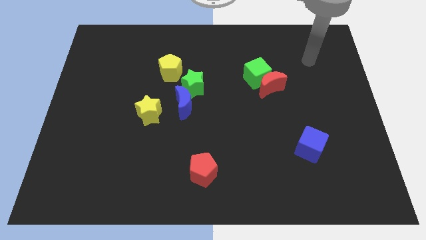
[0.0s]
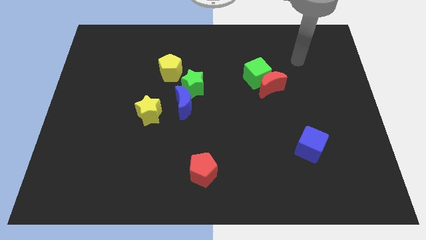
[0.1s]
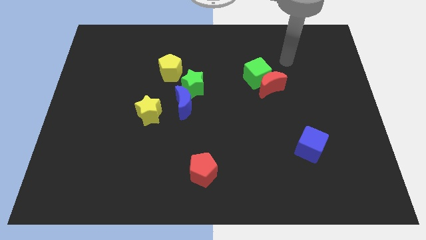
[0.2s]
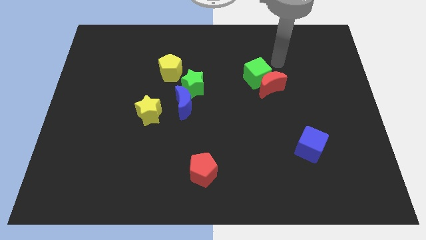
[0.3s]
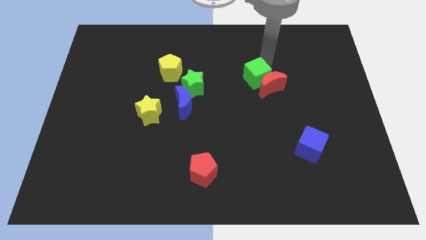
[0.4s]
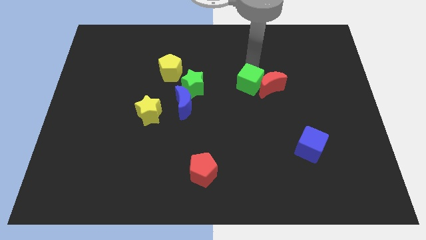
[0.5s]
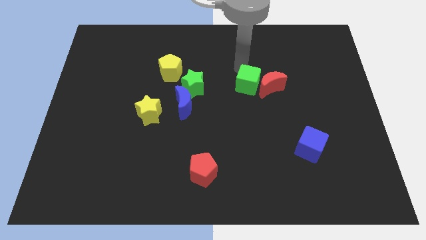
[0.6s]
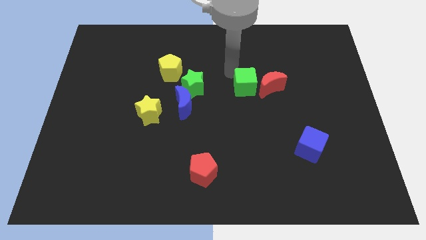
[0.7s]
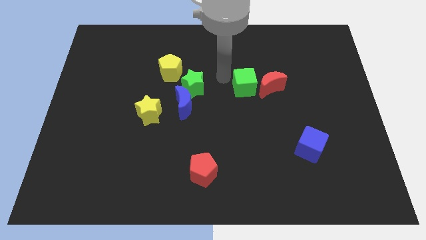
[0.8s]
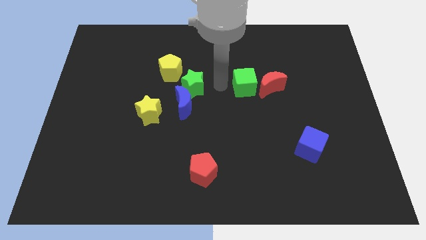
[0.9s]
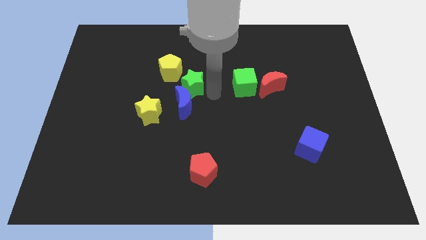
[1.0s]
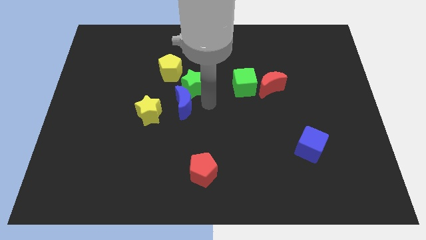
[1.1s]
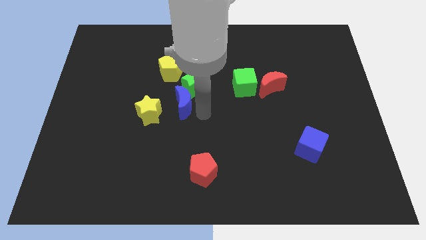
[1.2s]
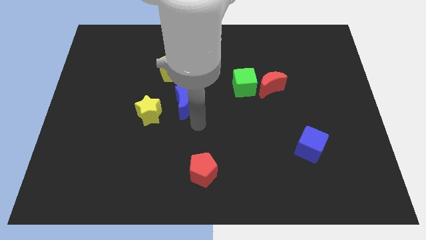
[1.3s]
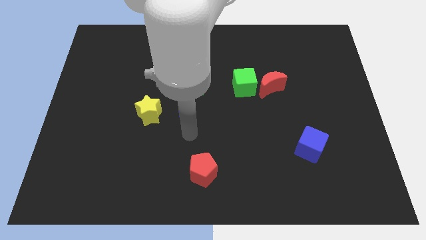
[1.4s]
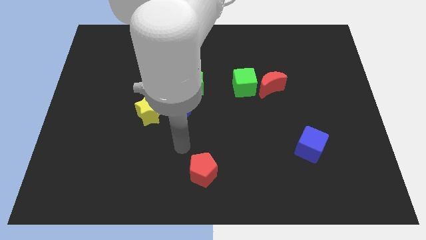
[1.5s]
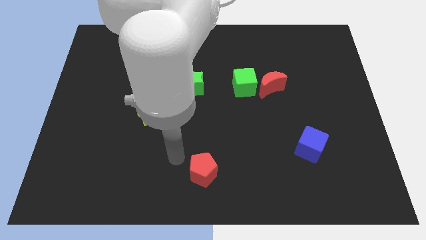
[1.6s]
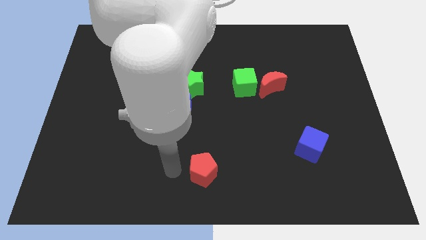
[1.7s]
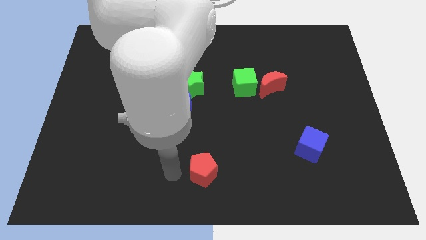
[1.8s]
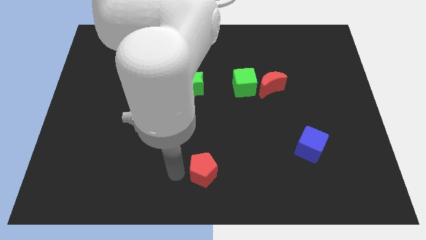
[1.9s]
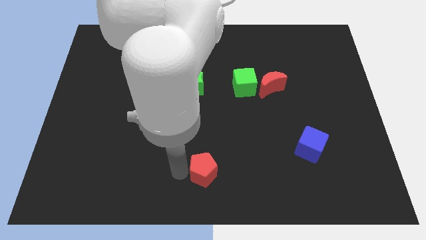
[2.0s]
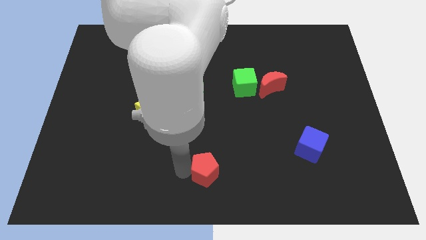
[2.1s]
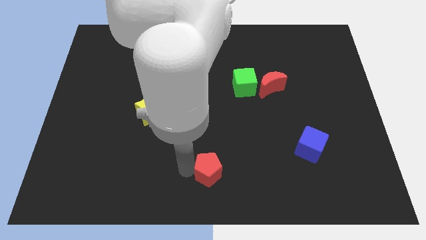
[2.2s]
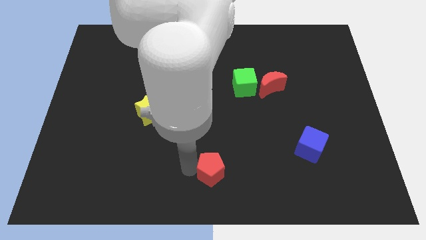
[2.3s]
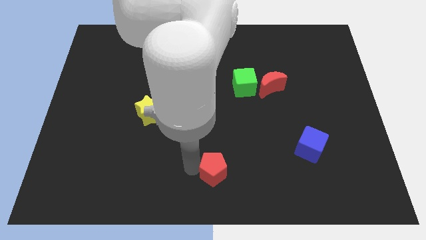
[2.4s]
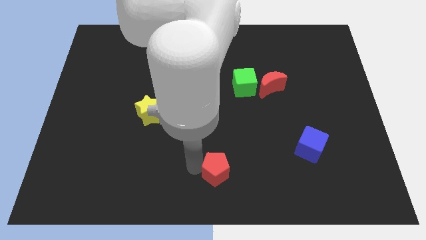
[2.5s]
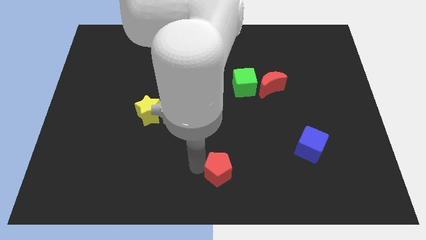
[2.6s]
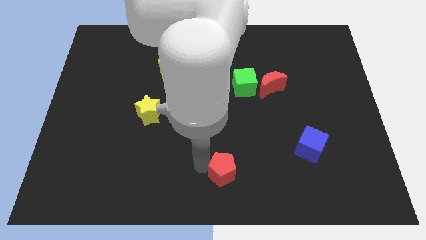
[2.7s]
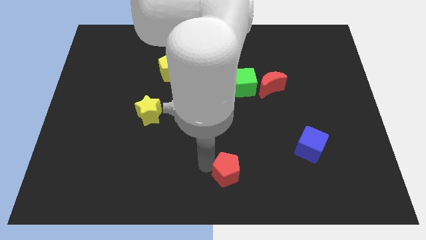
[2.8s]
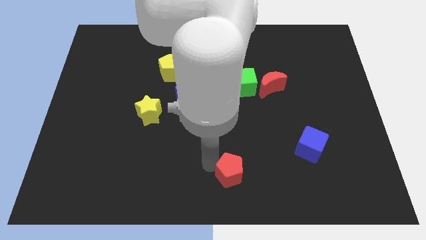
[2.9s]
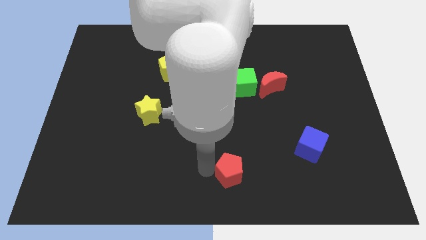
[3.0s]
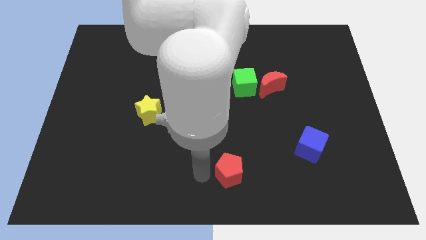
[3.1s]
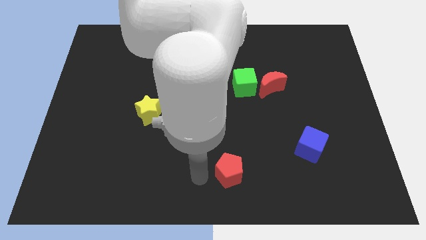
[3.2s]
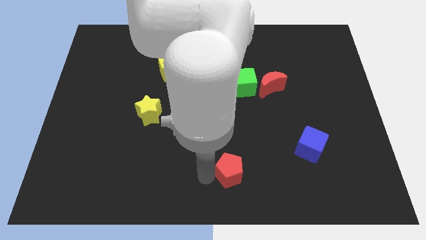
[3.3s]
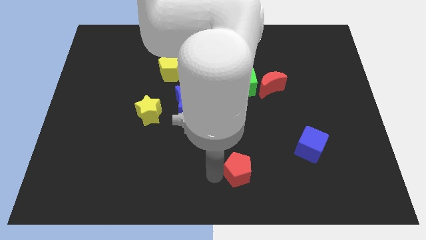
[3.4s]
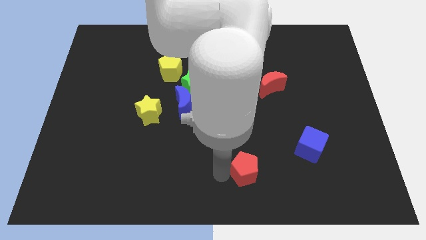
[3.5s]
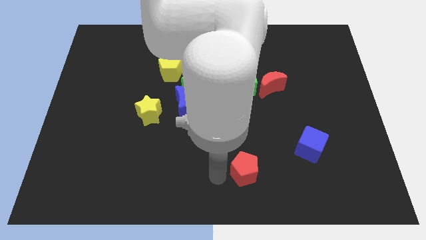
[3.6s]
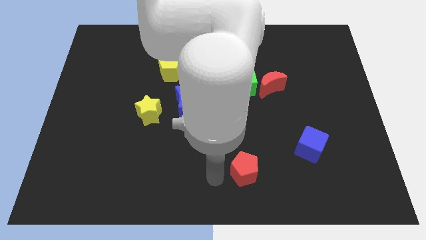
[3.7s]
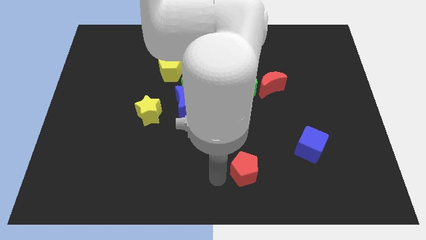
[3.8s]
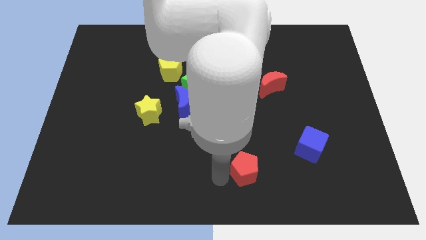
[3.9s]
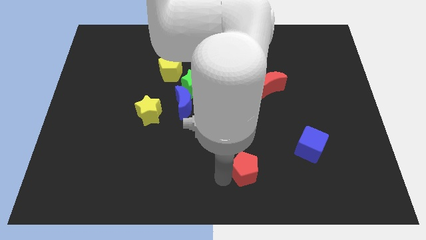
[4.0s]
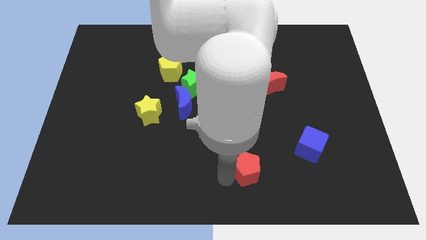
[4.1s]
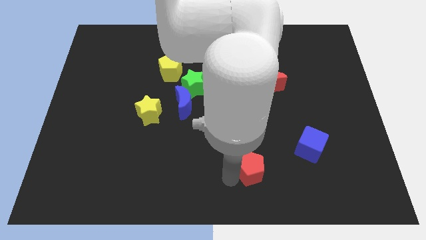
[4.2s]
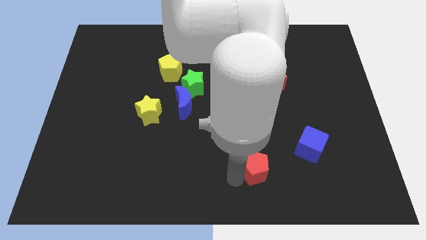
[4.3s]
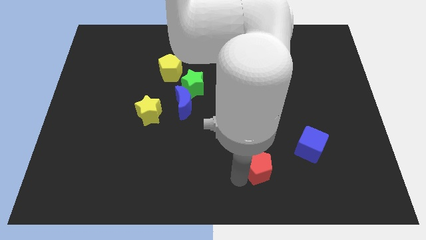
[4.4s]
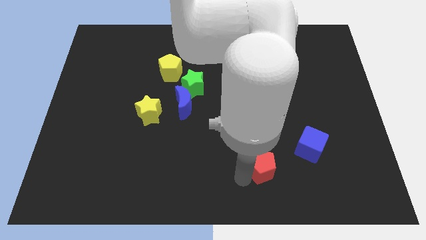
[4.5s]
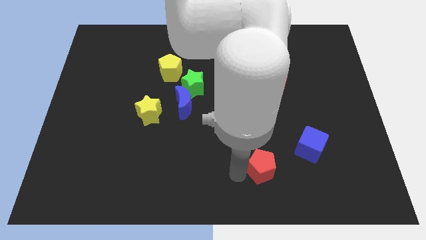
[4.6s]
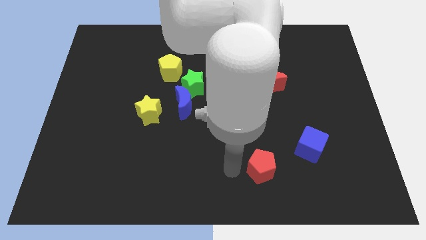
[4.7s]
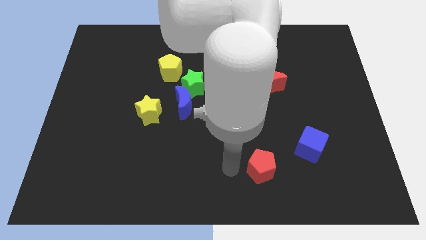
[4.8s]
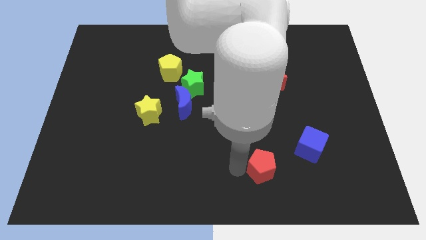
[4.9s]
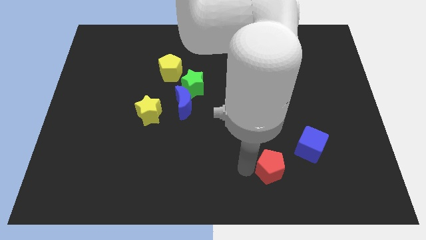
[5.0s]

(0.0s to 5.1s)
put the red pentagon to the bottom left side of the blue cube

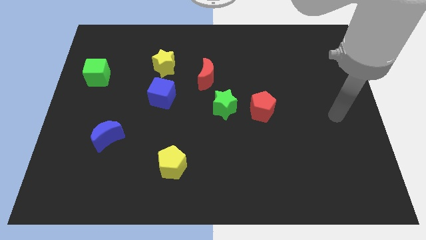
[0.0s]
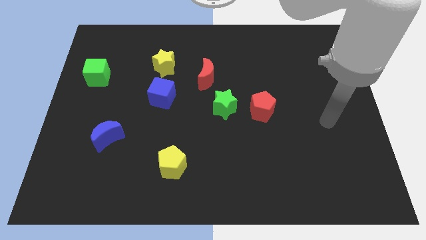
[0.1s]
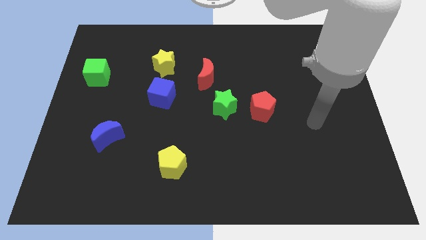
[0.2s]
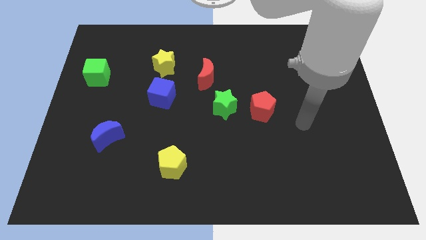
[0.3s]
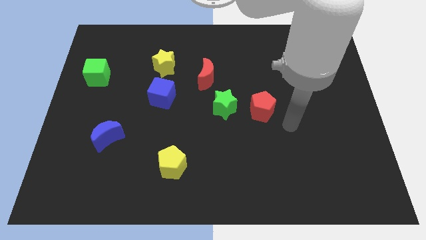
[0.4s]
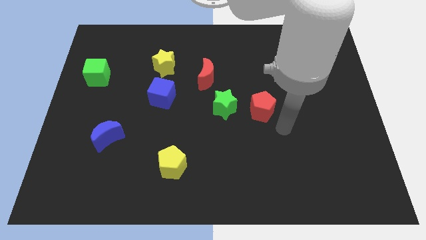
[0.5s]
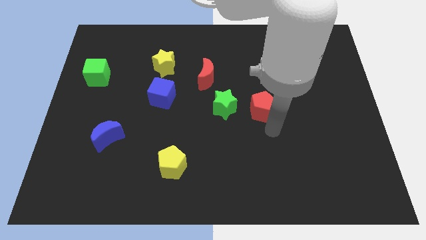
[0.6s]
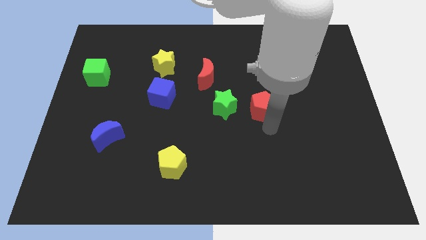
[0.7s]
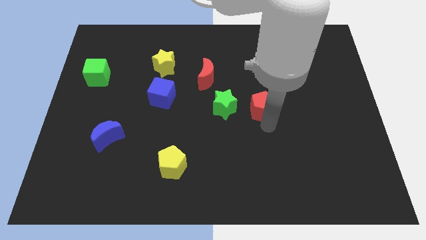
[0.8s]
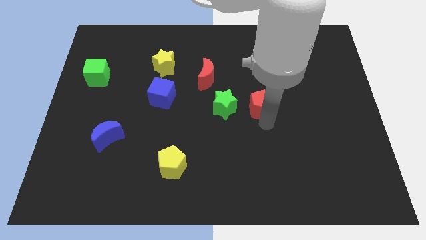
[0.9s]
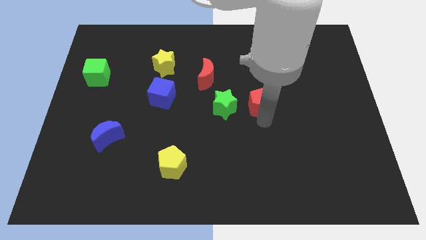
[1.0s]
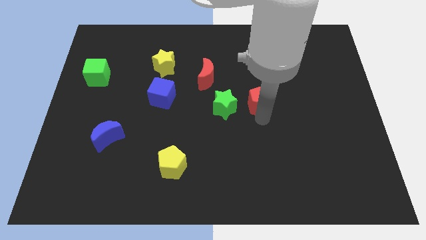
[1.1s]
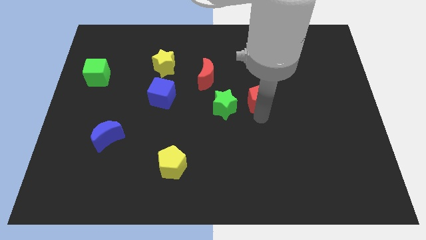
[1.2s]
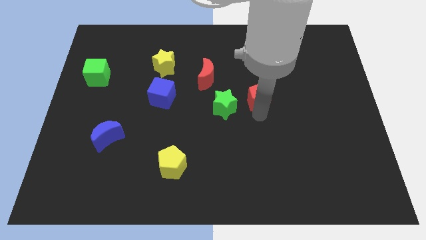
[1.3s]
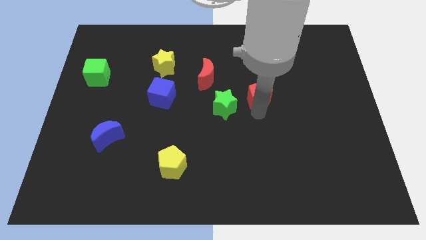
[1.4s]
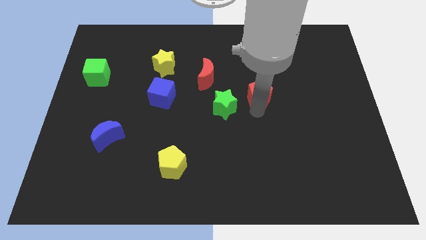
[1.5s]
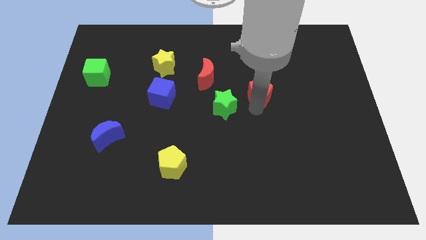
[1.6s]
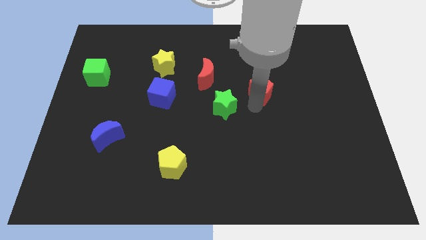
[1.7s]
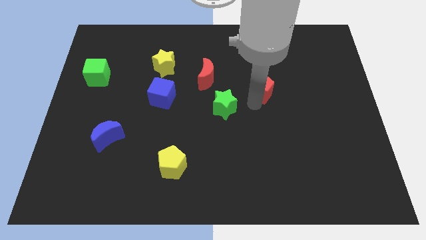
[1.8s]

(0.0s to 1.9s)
move the red pentagon right of the red moon

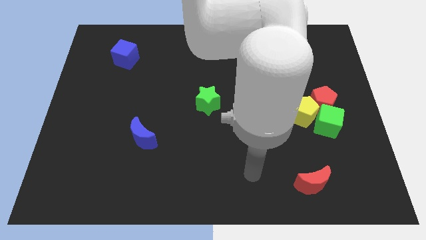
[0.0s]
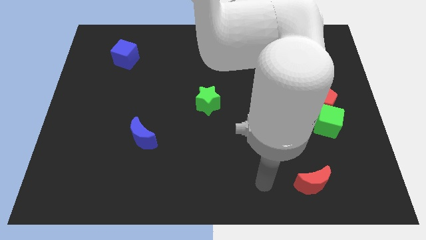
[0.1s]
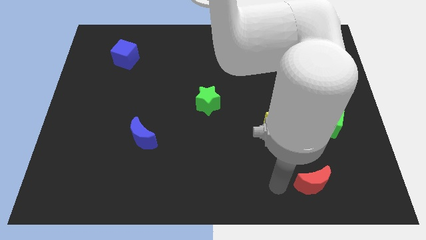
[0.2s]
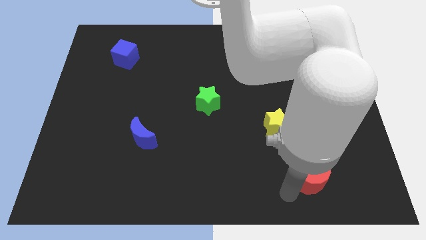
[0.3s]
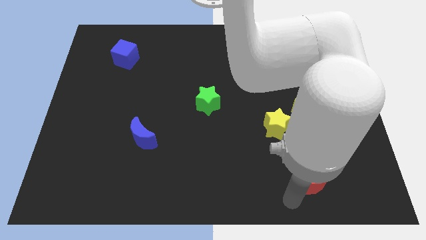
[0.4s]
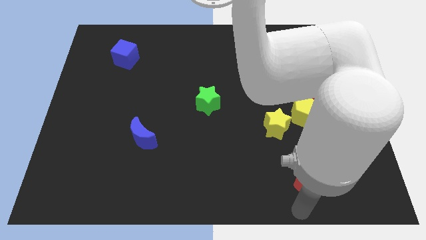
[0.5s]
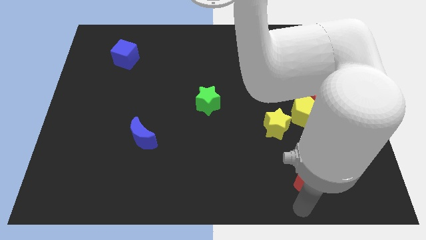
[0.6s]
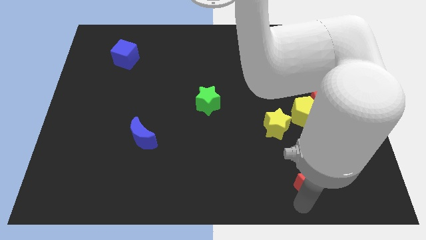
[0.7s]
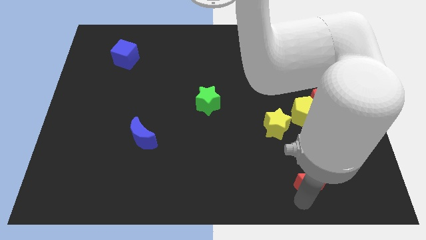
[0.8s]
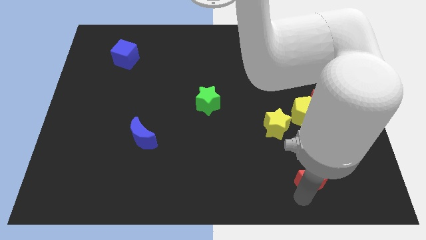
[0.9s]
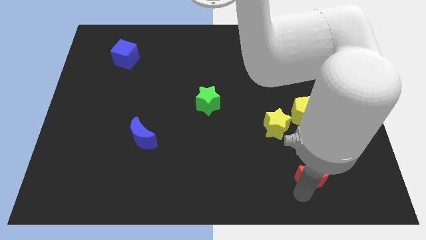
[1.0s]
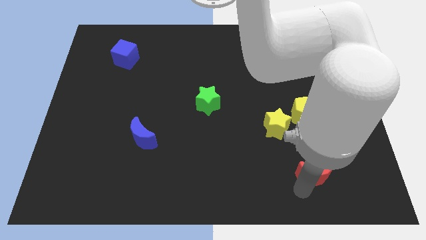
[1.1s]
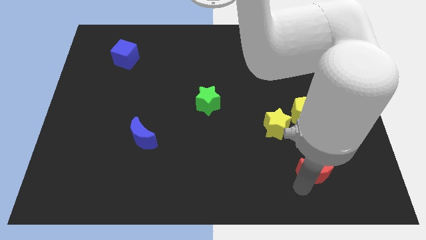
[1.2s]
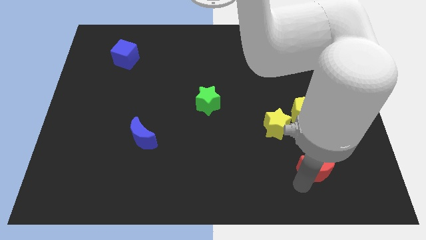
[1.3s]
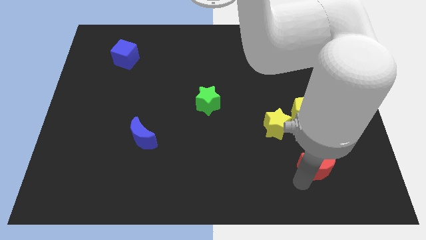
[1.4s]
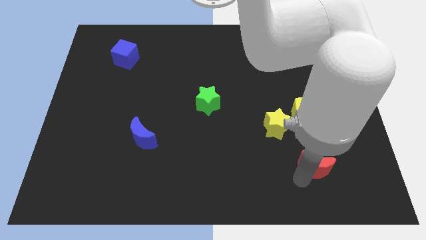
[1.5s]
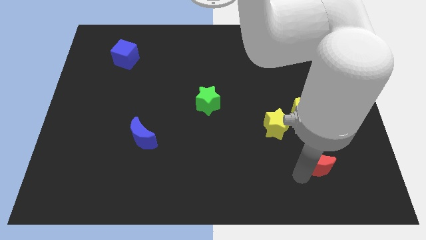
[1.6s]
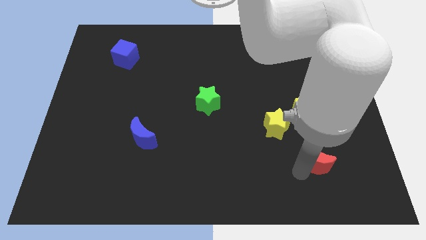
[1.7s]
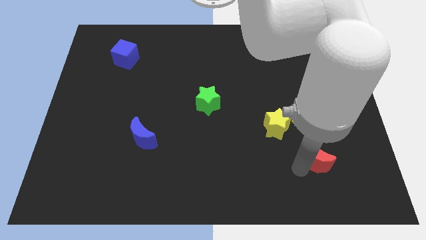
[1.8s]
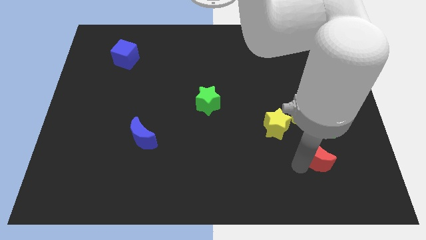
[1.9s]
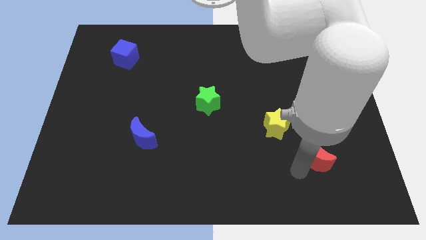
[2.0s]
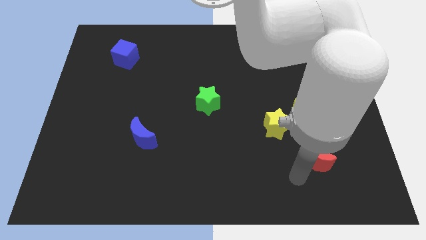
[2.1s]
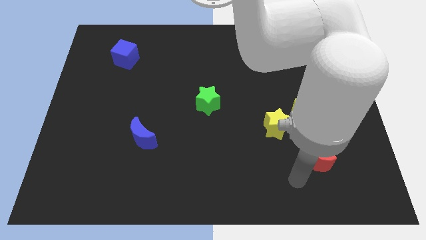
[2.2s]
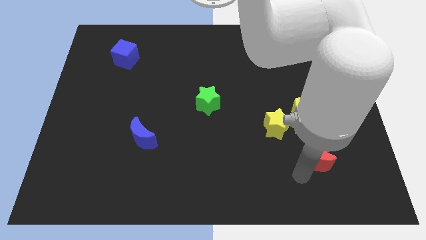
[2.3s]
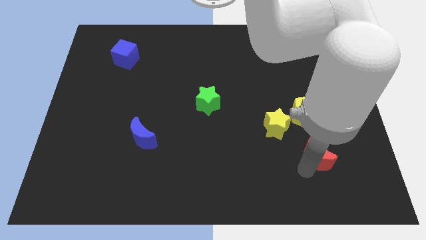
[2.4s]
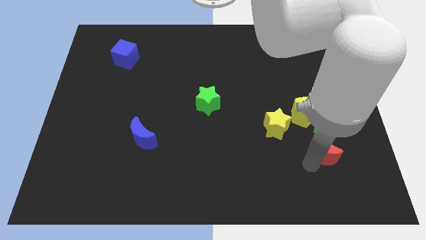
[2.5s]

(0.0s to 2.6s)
put the red moon below the red pentagon
